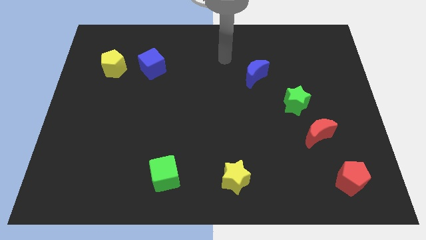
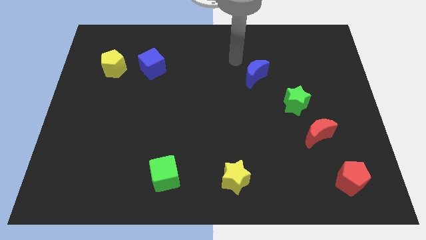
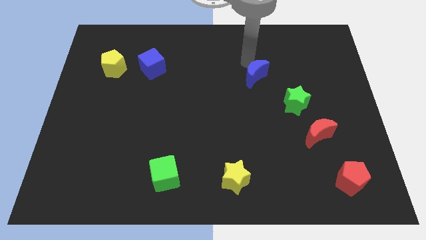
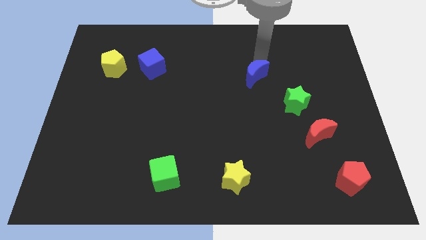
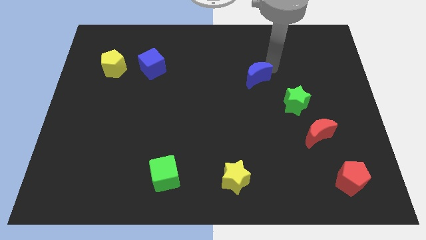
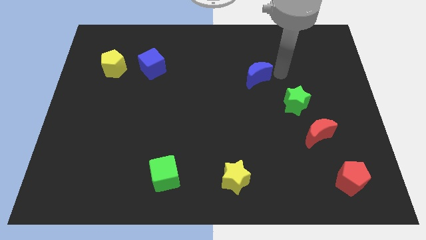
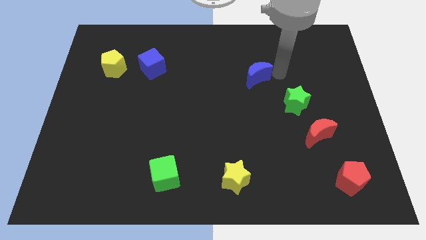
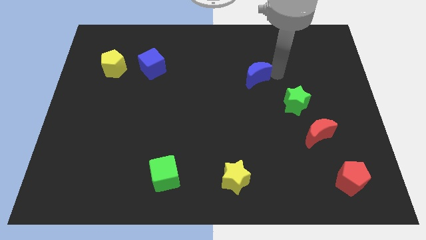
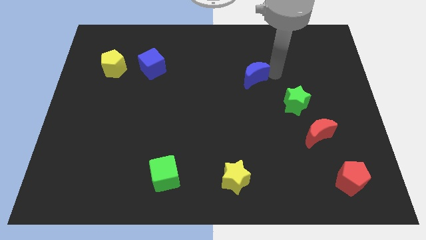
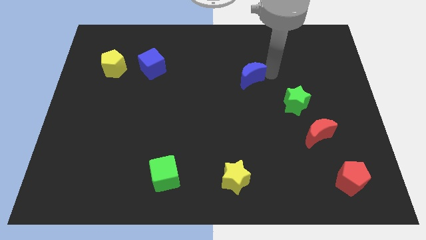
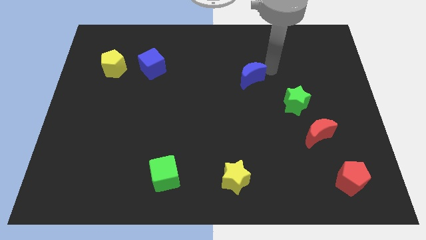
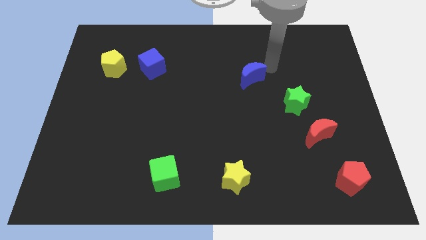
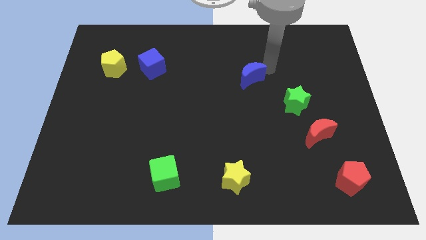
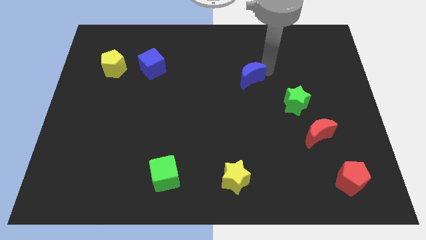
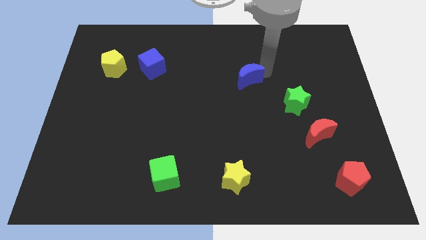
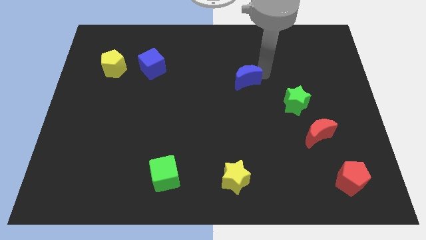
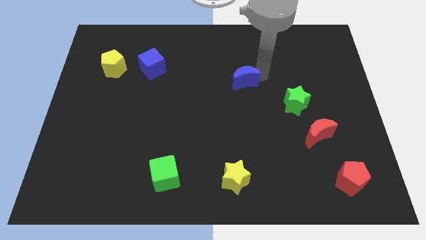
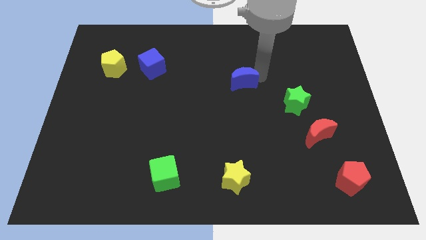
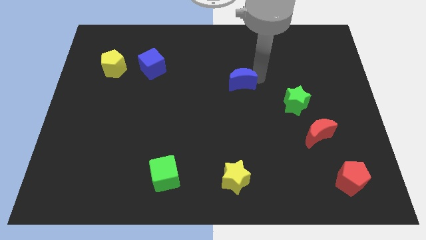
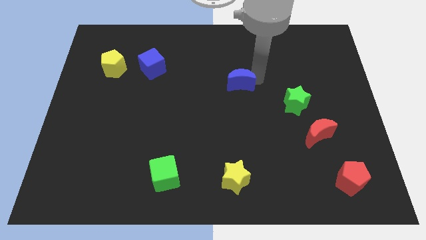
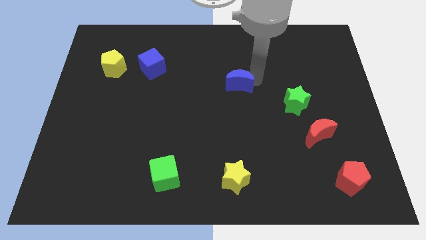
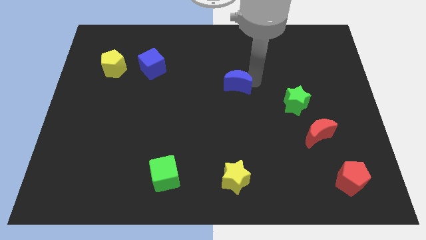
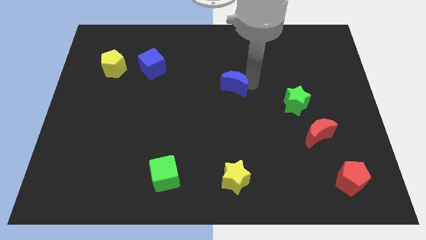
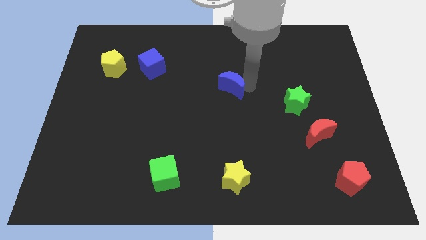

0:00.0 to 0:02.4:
slide the blue moon diagonally downwards and to the left a bit

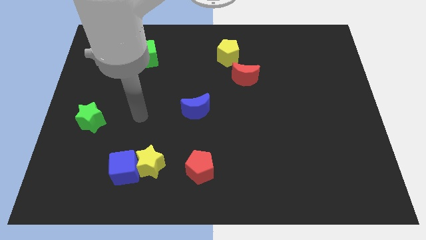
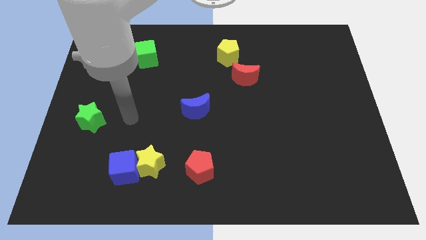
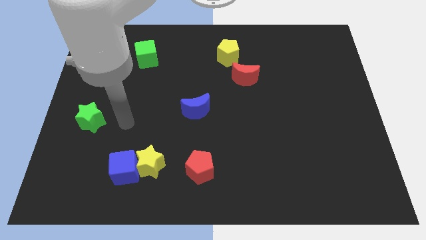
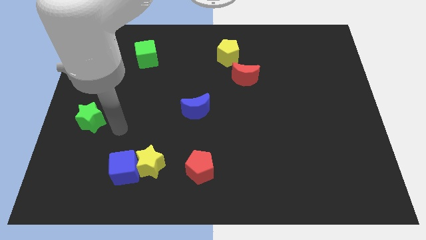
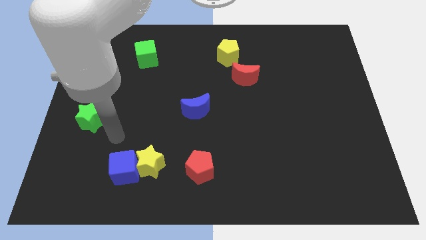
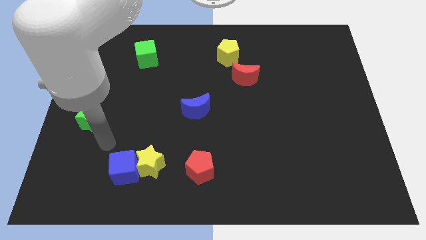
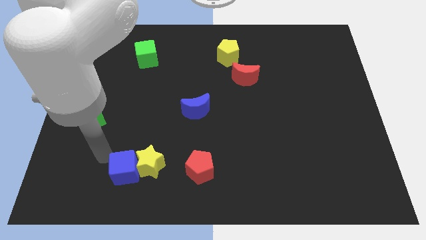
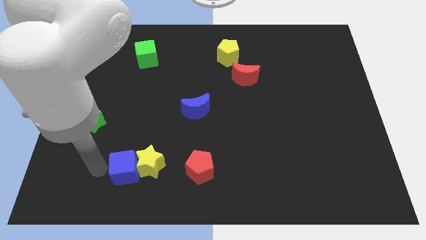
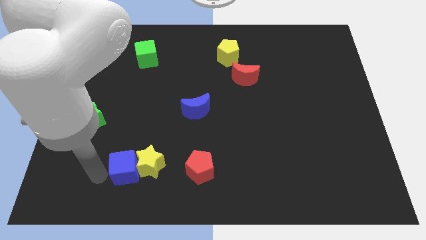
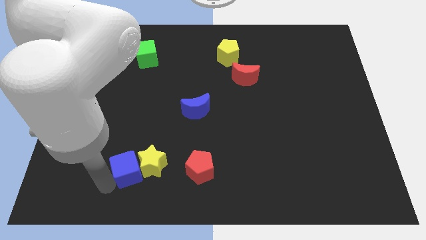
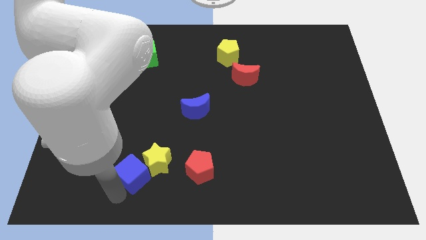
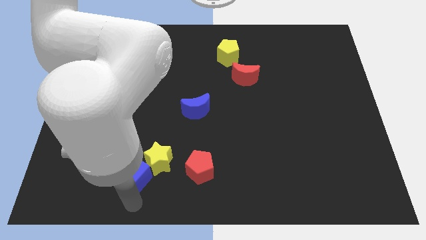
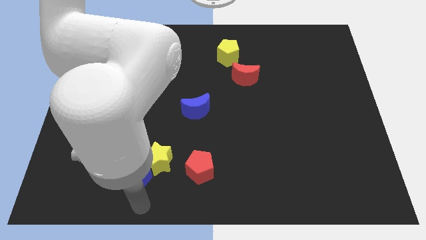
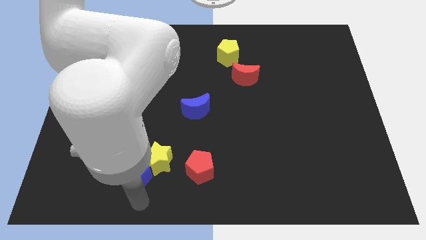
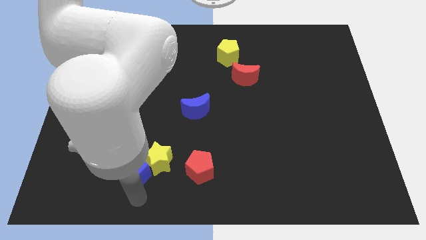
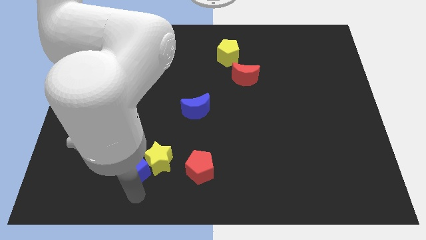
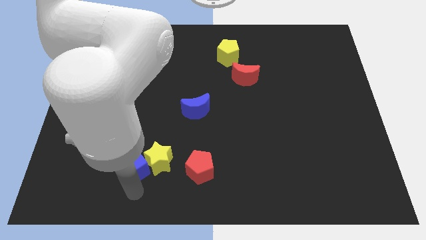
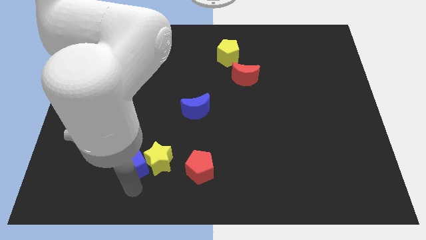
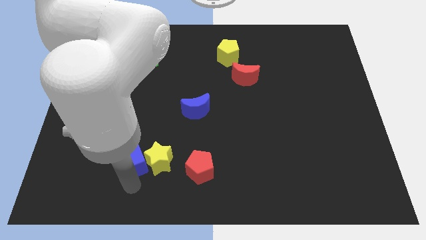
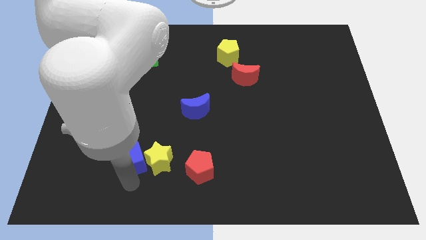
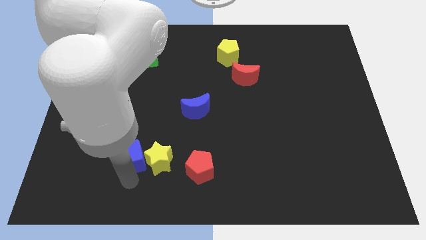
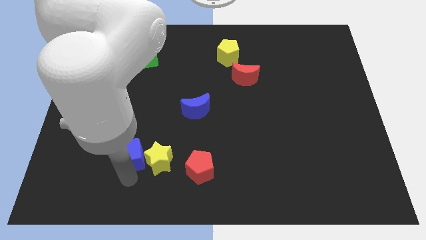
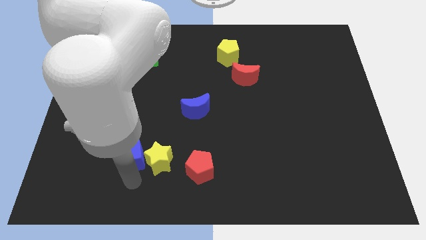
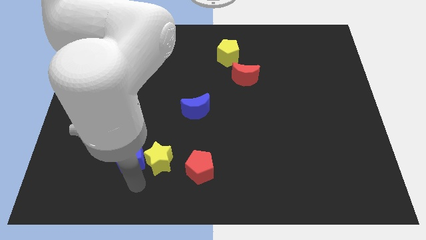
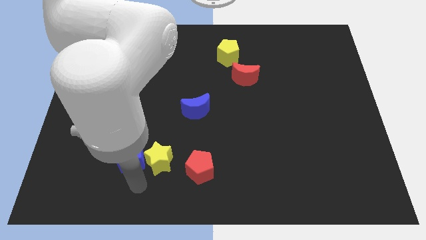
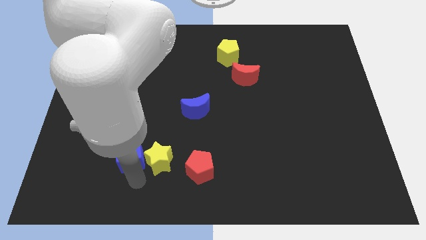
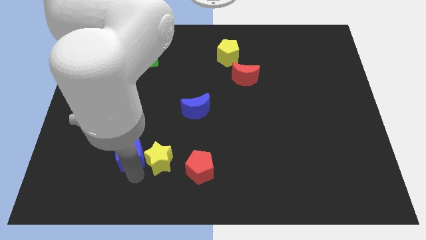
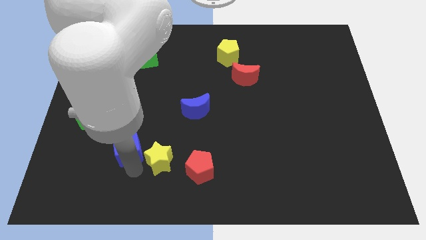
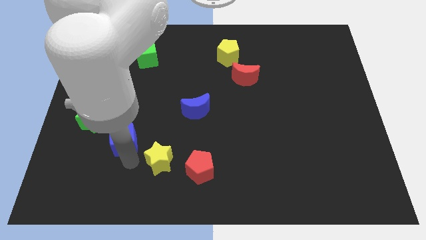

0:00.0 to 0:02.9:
slightly move the blue cube upwards

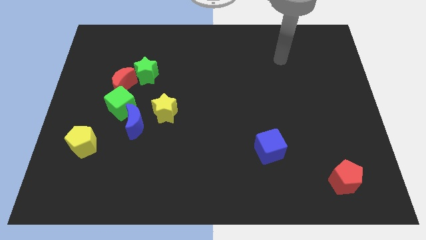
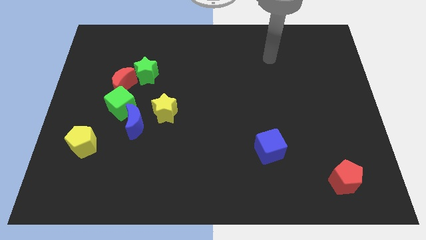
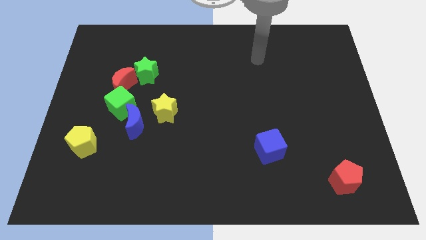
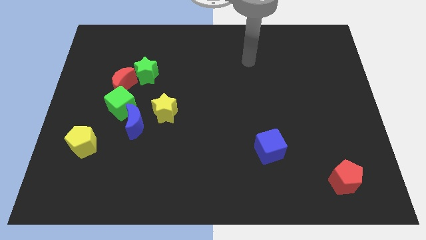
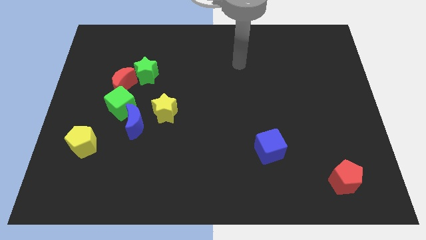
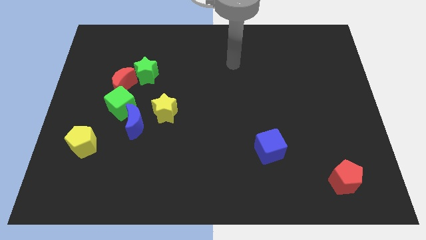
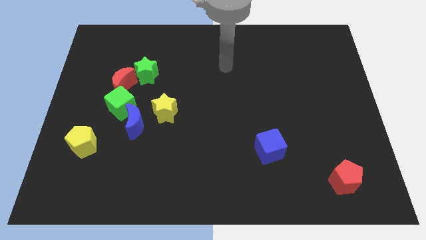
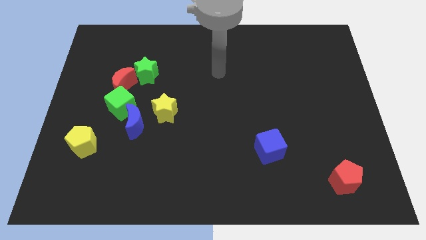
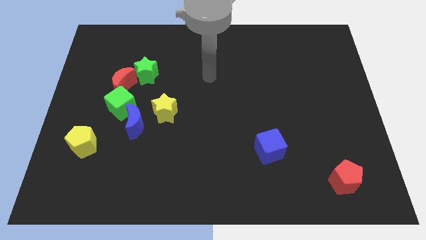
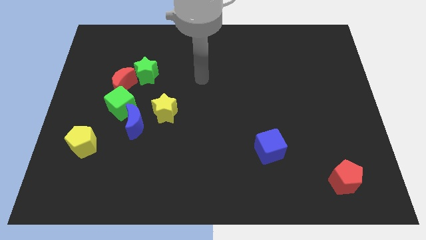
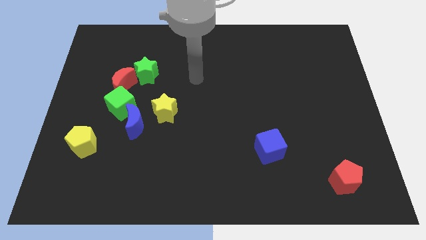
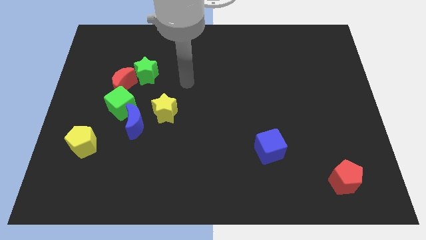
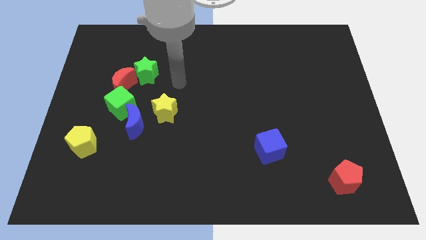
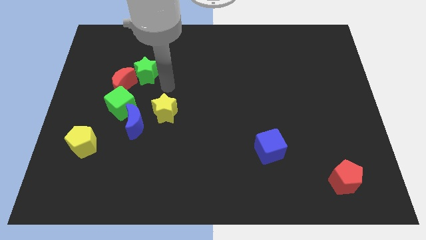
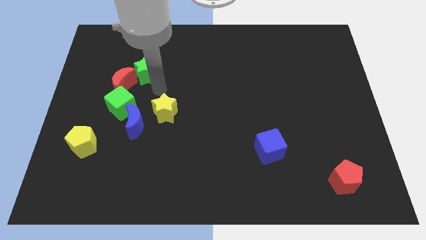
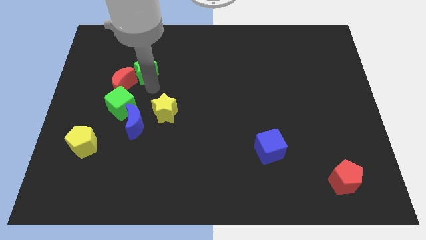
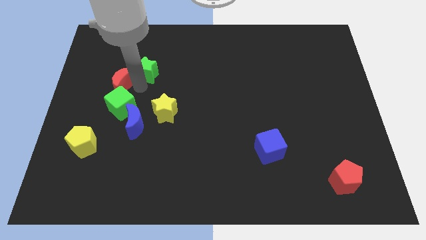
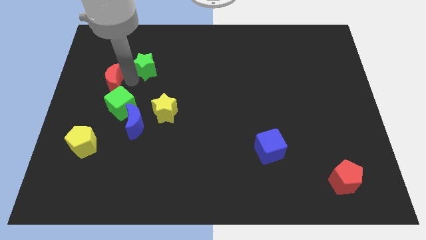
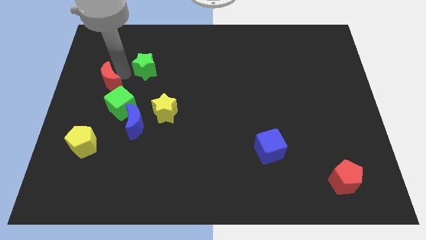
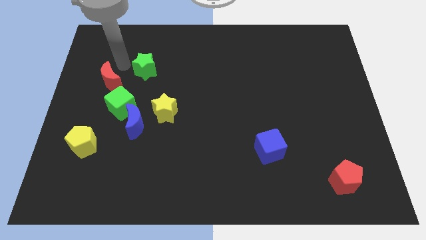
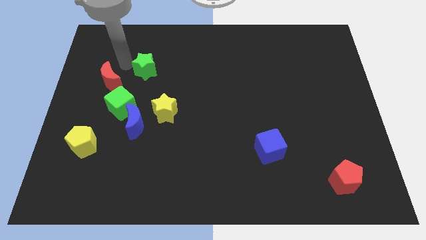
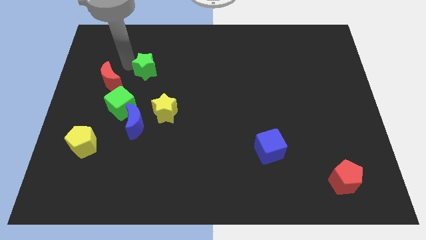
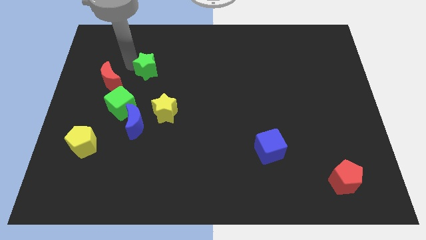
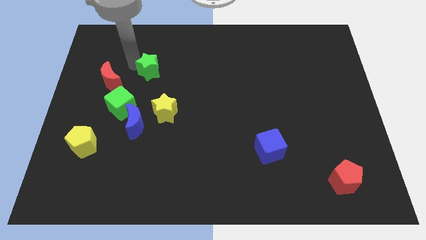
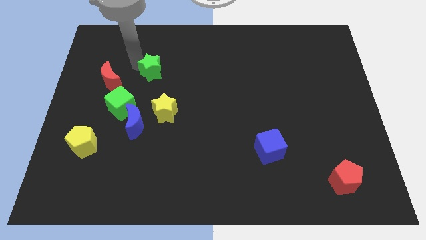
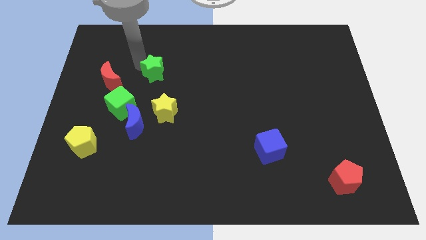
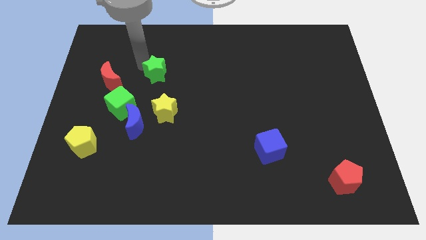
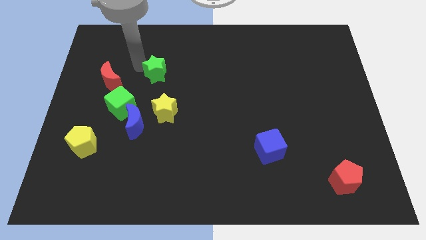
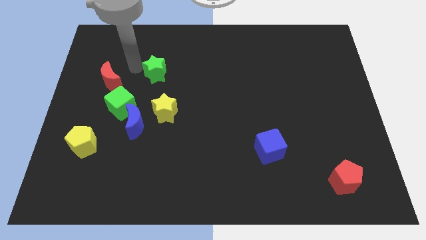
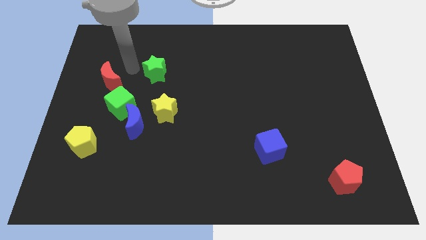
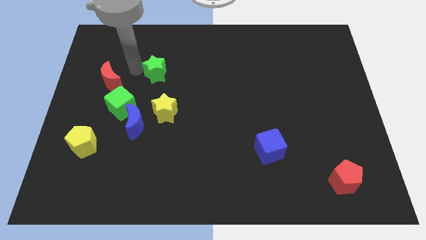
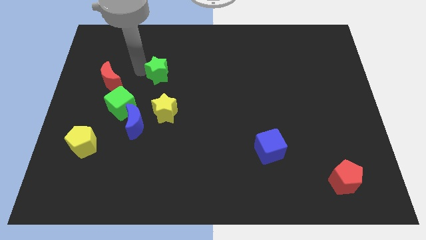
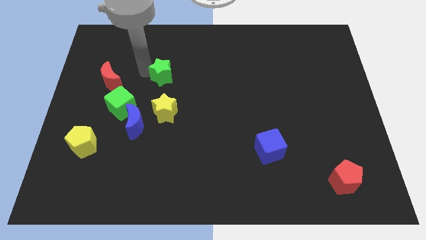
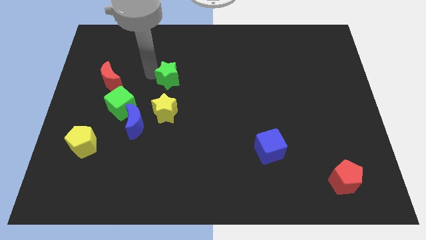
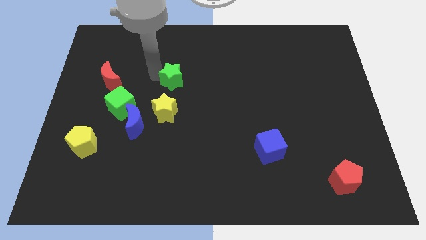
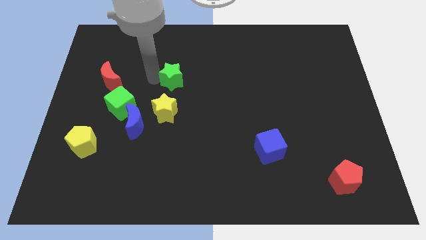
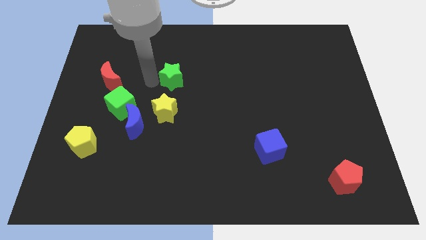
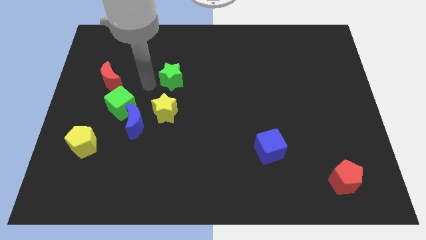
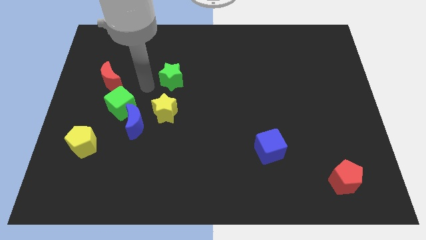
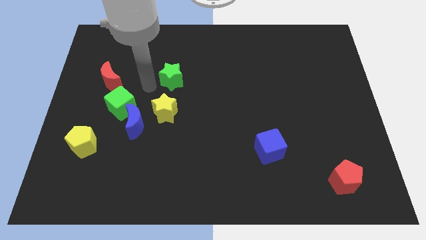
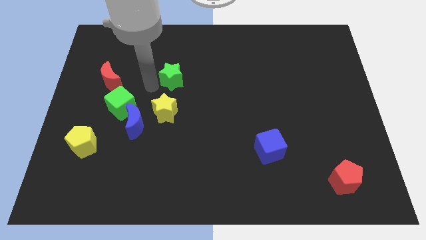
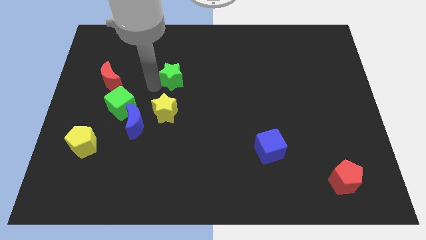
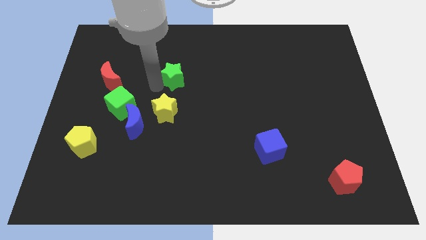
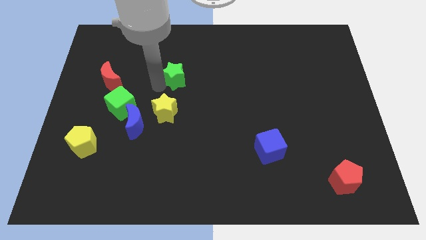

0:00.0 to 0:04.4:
push the green star a bit right
